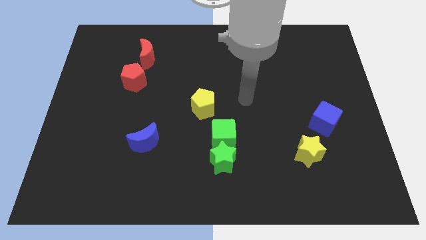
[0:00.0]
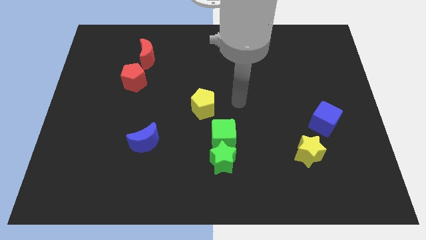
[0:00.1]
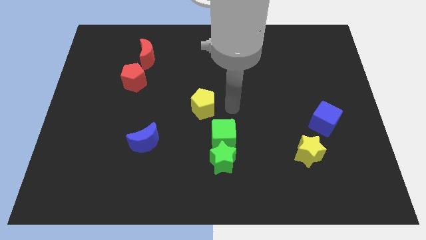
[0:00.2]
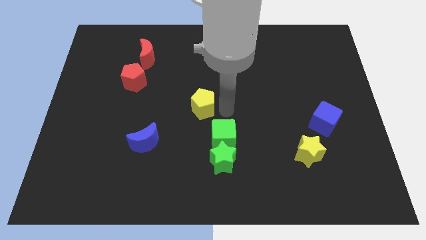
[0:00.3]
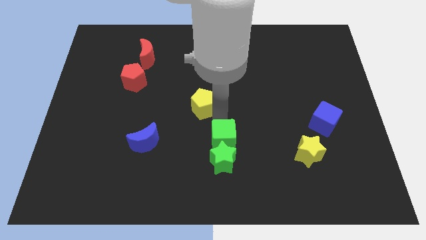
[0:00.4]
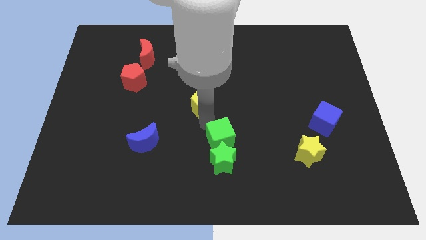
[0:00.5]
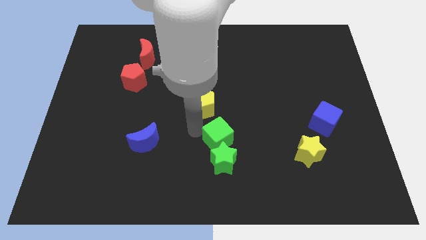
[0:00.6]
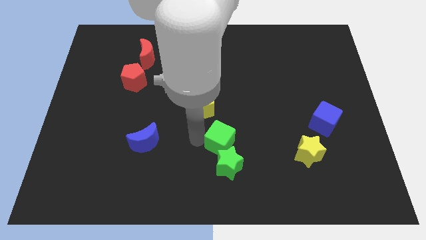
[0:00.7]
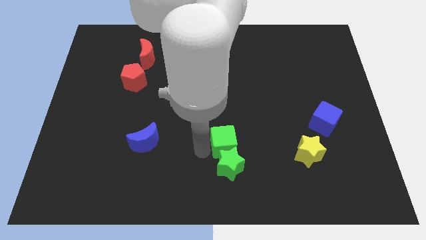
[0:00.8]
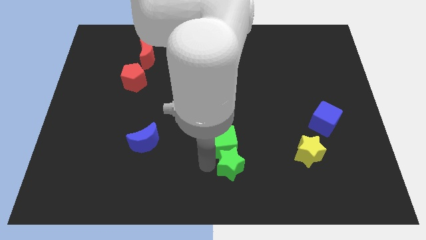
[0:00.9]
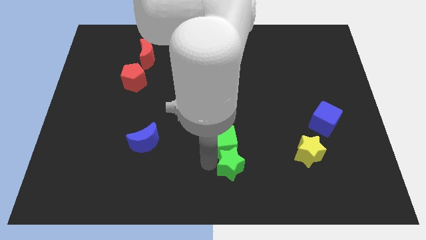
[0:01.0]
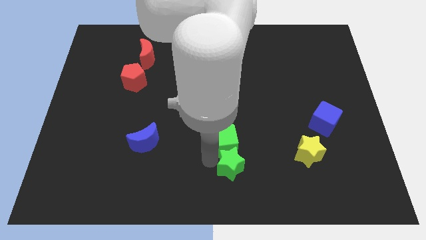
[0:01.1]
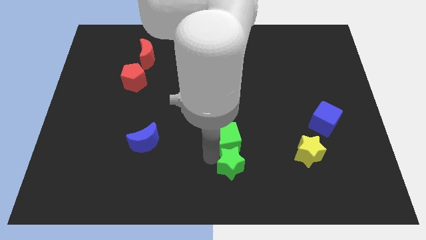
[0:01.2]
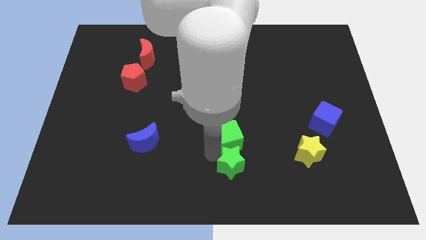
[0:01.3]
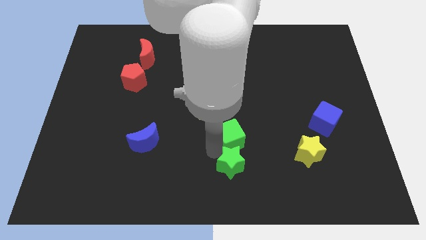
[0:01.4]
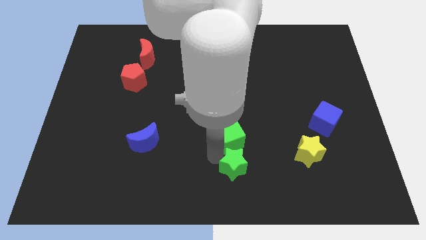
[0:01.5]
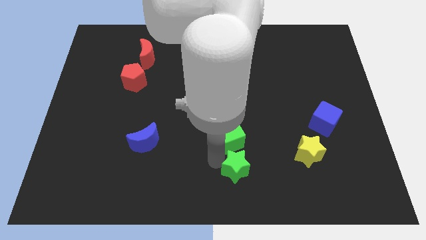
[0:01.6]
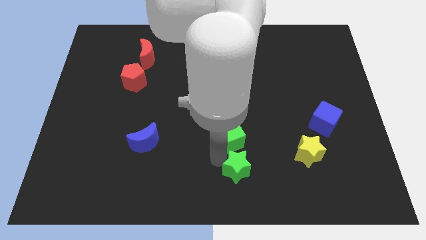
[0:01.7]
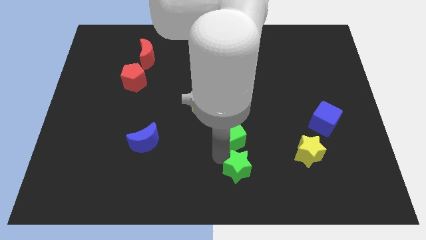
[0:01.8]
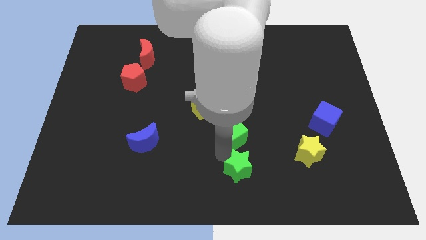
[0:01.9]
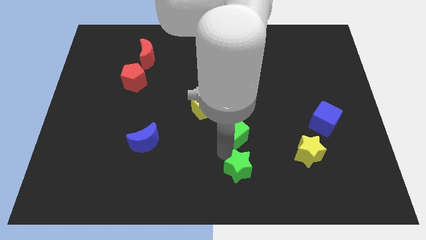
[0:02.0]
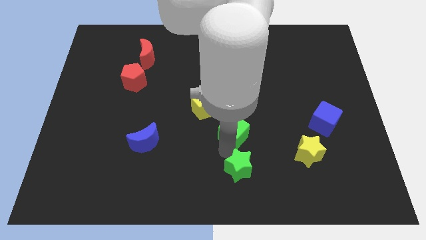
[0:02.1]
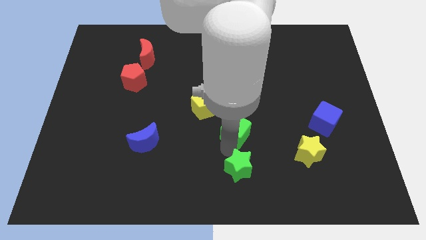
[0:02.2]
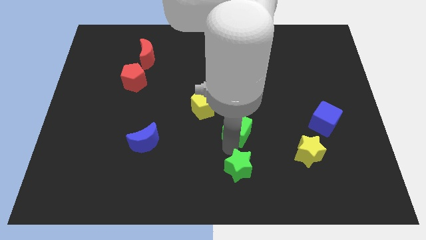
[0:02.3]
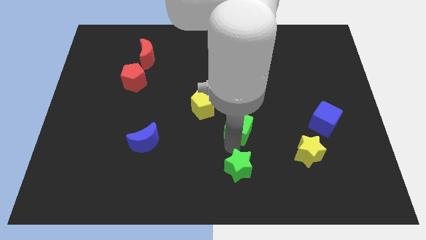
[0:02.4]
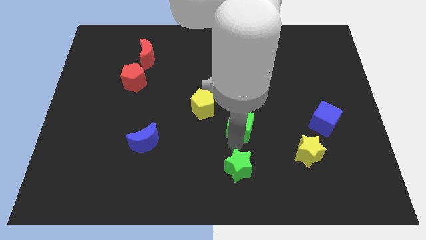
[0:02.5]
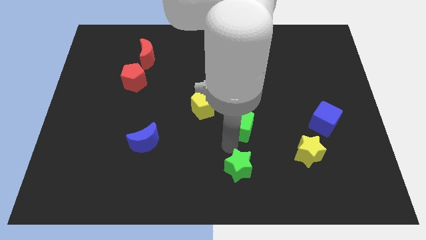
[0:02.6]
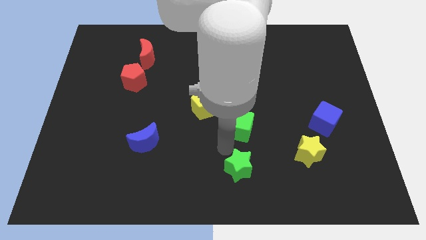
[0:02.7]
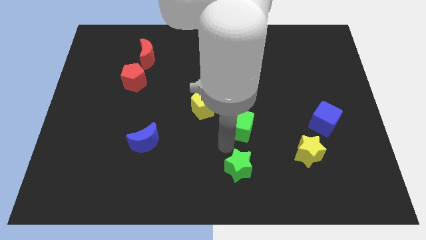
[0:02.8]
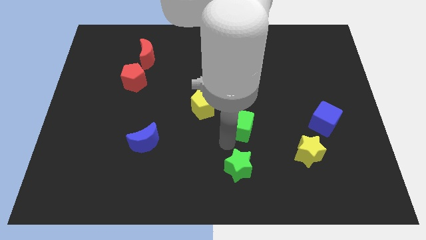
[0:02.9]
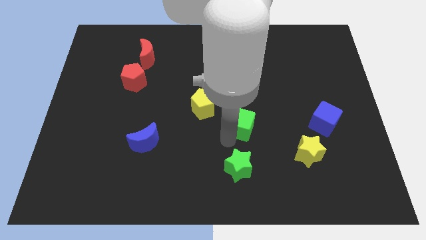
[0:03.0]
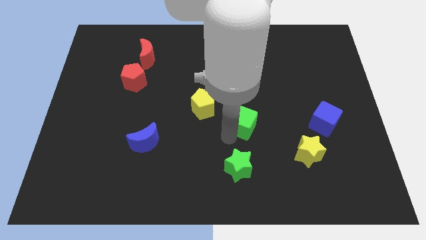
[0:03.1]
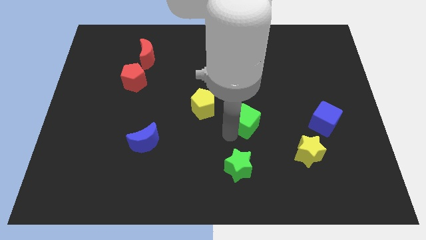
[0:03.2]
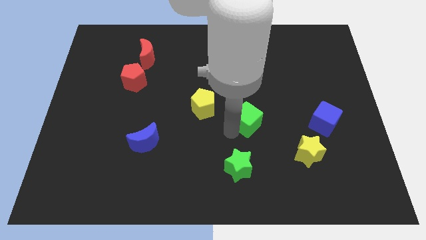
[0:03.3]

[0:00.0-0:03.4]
push the green cube upwards and to the right slightly

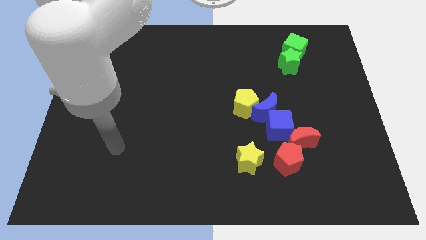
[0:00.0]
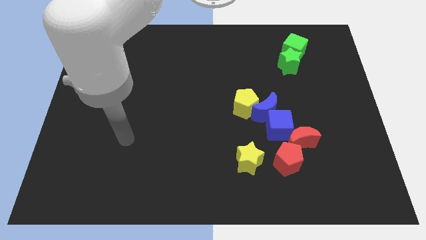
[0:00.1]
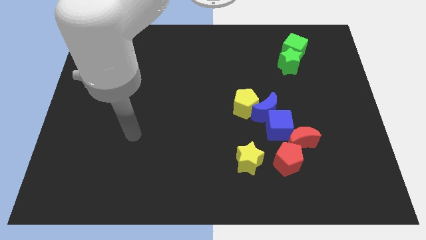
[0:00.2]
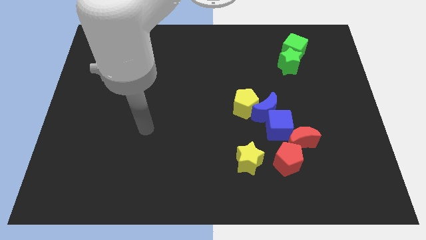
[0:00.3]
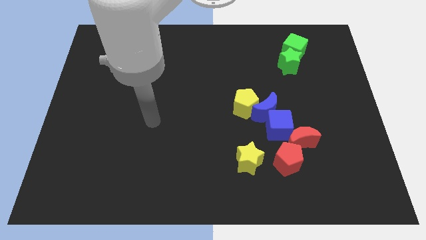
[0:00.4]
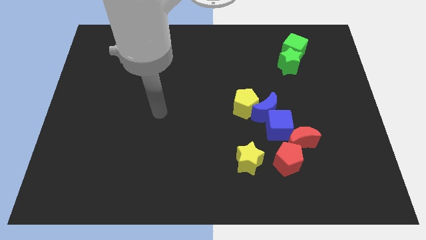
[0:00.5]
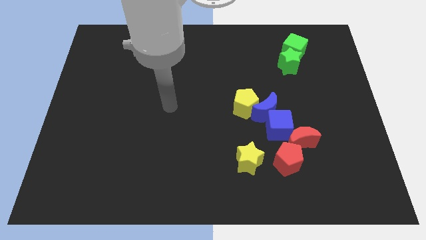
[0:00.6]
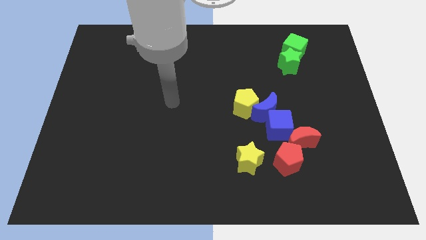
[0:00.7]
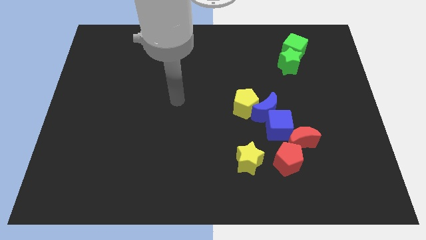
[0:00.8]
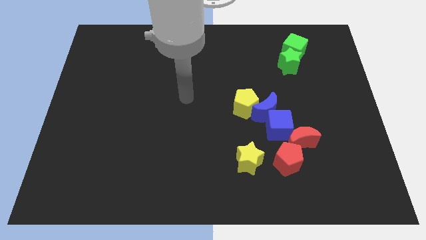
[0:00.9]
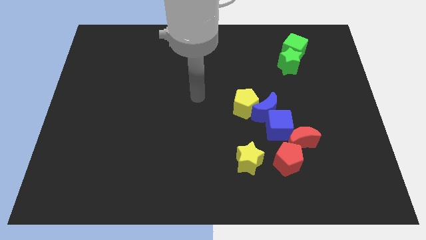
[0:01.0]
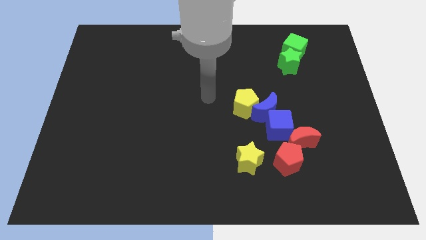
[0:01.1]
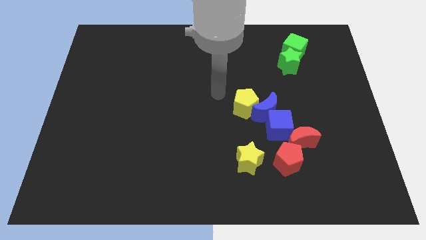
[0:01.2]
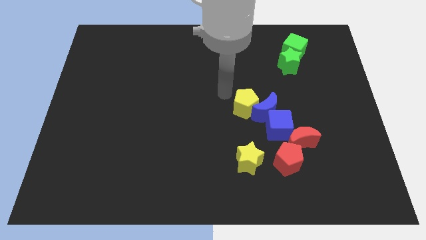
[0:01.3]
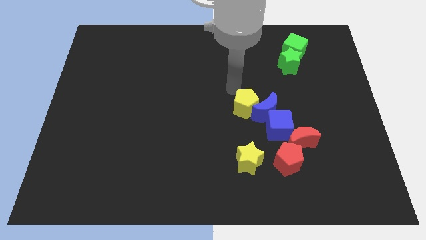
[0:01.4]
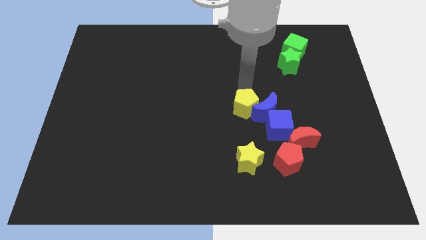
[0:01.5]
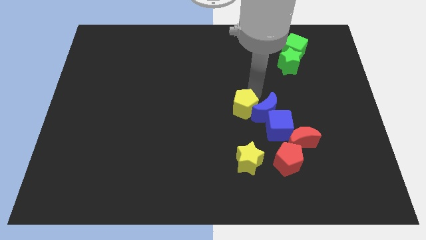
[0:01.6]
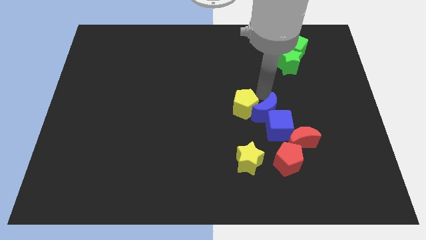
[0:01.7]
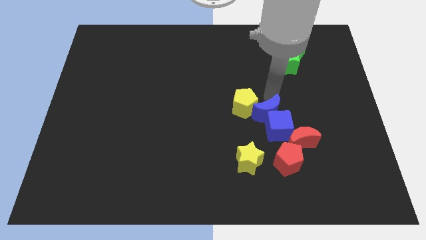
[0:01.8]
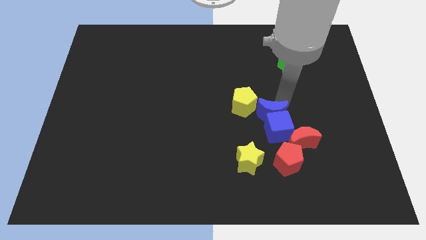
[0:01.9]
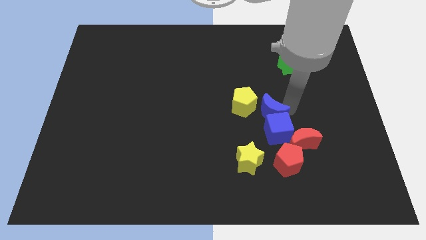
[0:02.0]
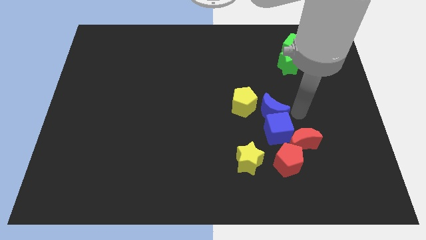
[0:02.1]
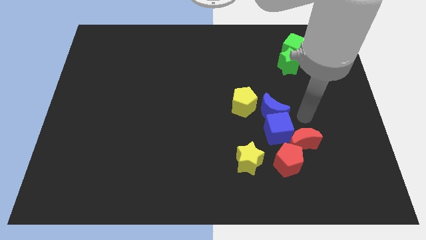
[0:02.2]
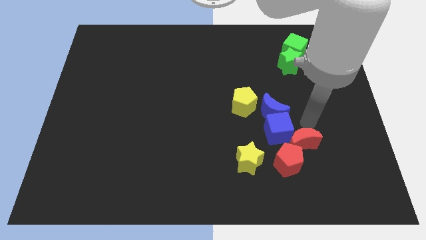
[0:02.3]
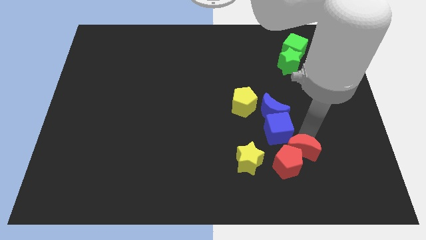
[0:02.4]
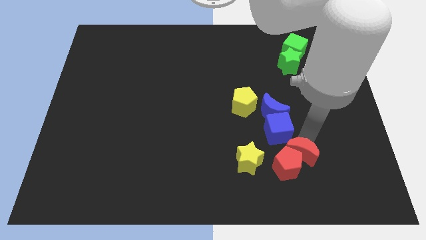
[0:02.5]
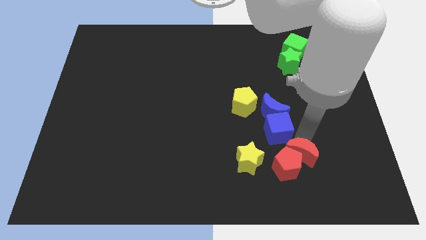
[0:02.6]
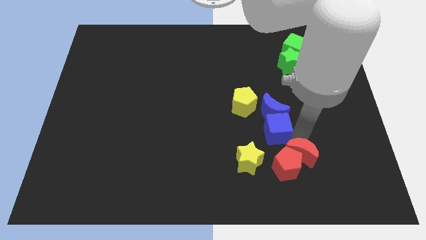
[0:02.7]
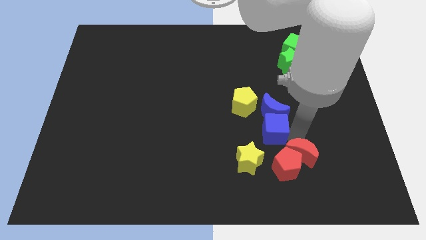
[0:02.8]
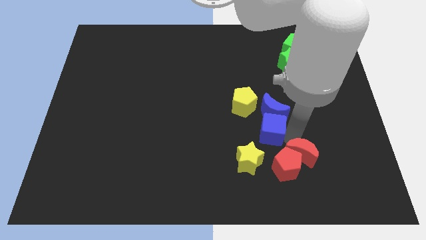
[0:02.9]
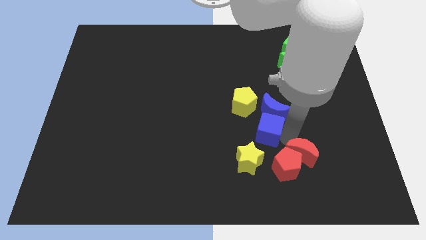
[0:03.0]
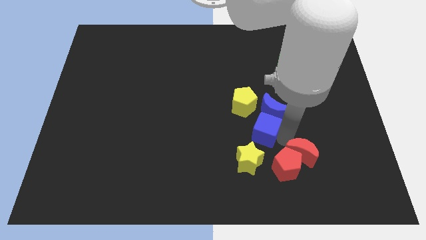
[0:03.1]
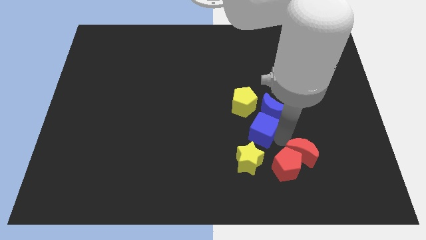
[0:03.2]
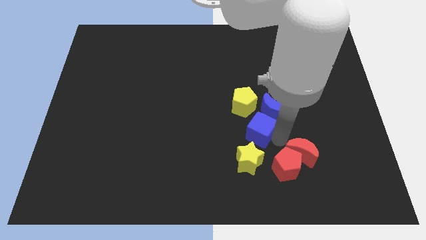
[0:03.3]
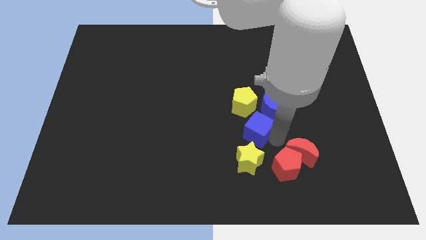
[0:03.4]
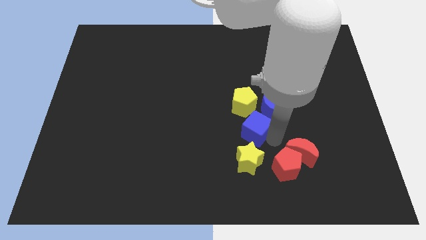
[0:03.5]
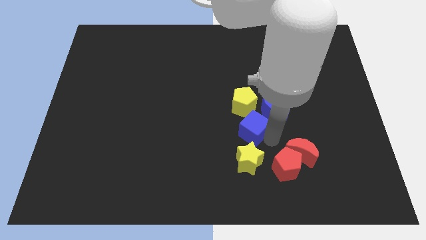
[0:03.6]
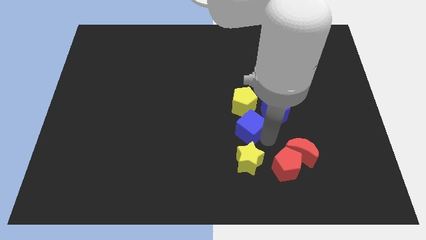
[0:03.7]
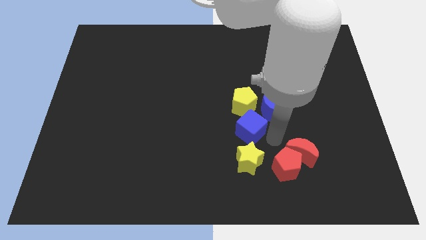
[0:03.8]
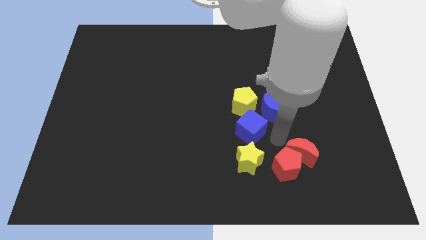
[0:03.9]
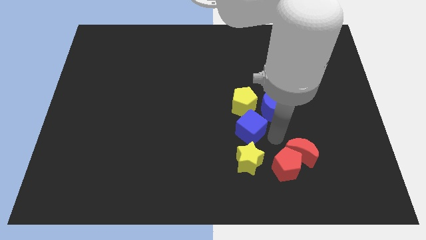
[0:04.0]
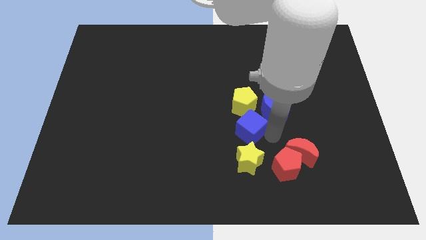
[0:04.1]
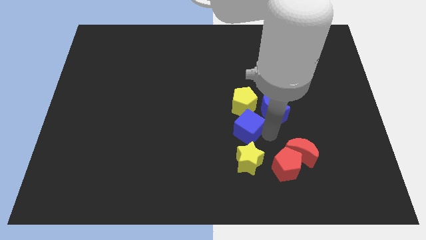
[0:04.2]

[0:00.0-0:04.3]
push the blue cube to the left a bit

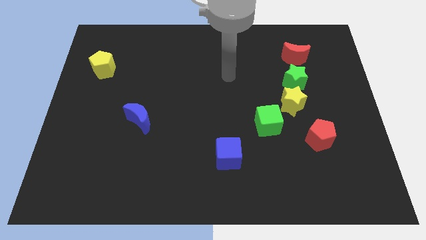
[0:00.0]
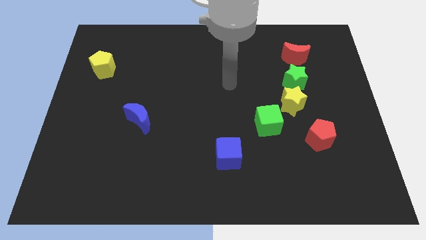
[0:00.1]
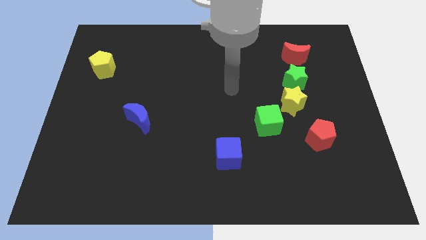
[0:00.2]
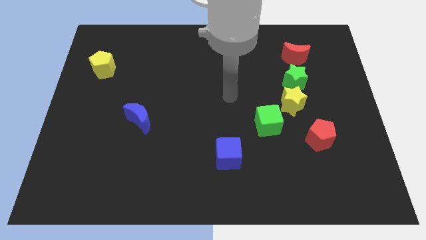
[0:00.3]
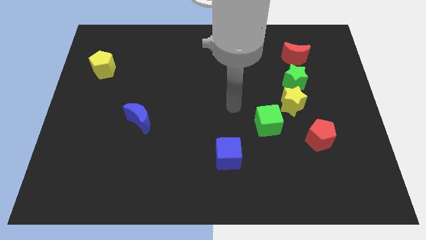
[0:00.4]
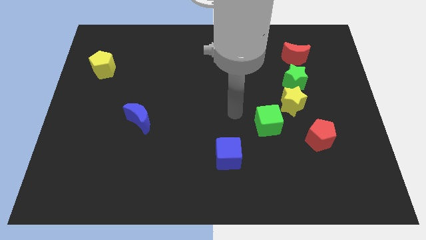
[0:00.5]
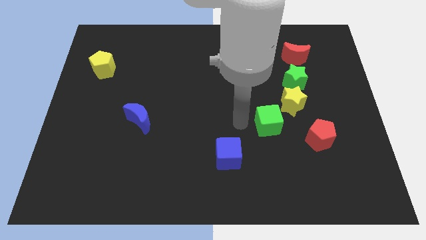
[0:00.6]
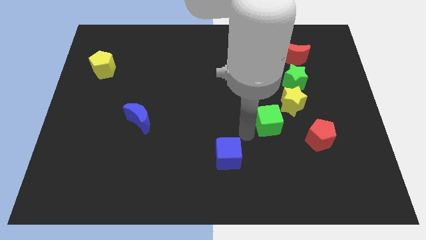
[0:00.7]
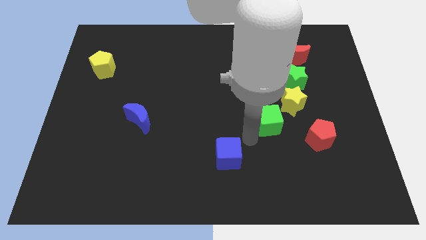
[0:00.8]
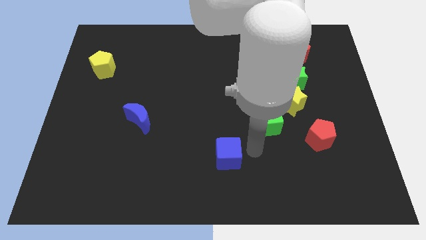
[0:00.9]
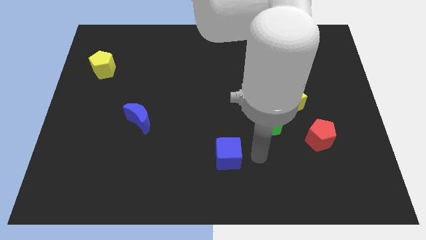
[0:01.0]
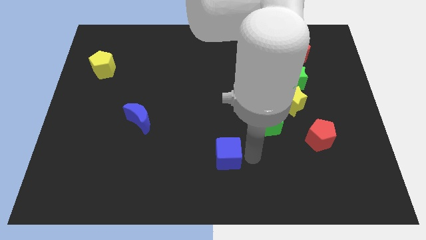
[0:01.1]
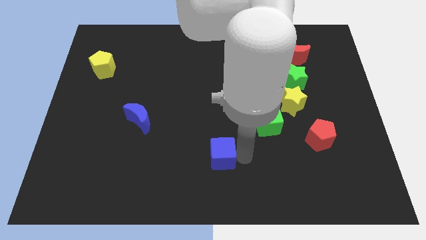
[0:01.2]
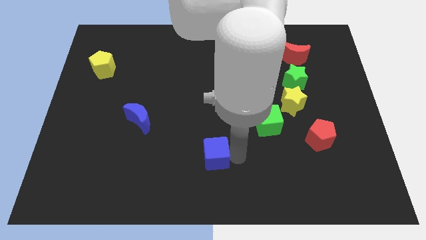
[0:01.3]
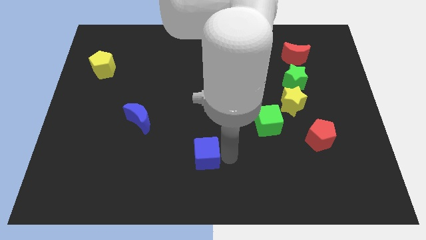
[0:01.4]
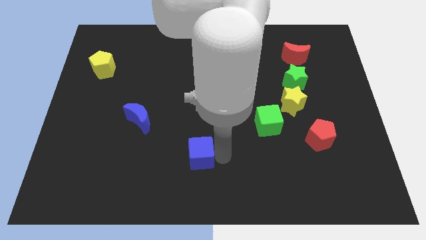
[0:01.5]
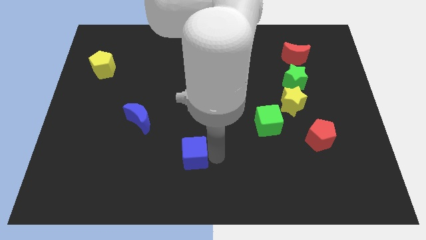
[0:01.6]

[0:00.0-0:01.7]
push the blue cube left a bit
